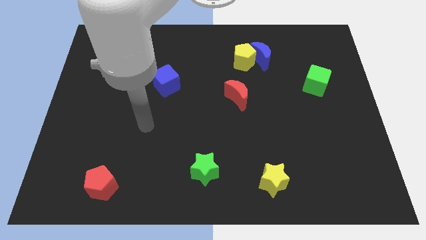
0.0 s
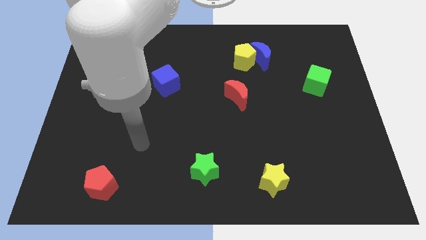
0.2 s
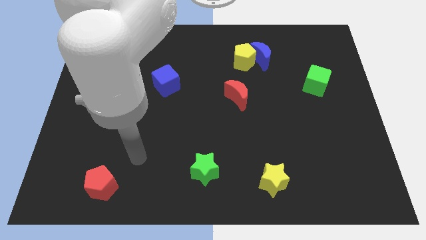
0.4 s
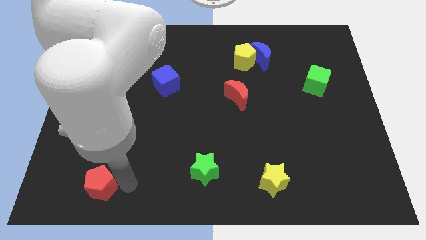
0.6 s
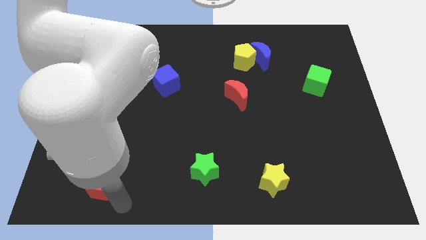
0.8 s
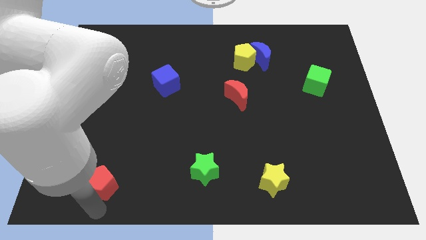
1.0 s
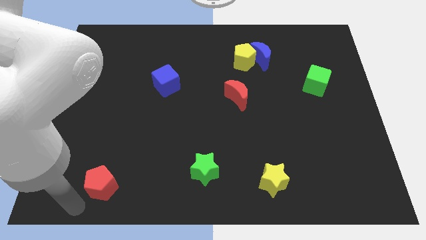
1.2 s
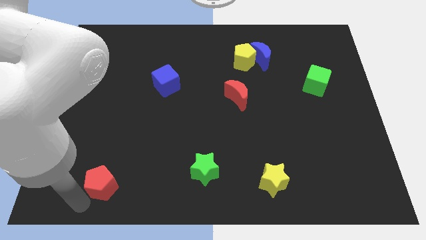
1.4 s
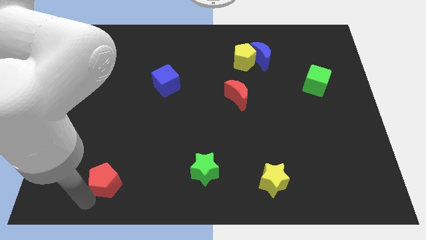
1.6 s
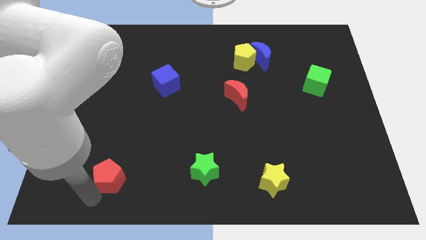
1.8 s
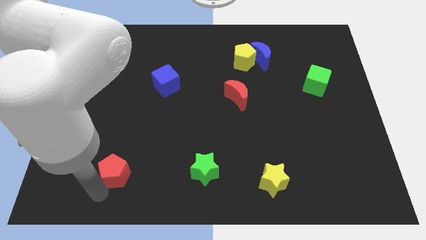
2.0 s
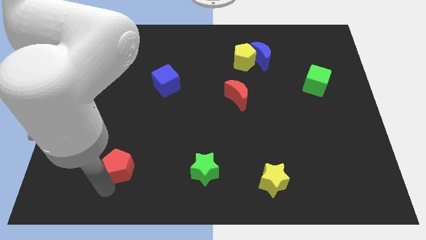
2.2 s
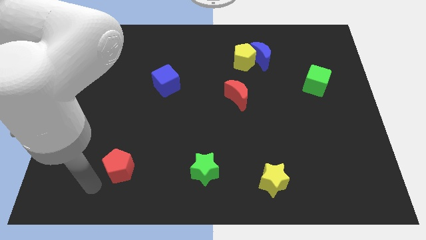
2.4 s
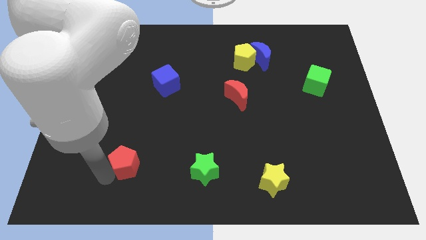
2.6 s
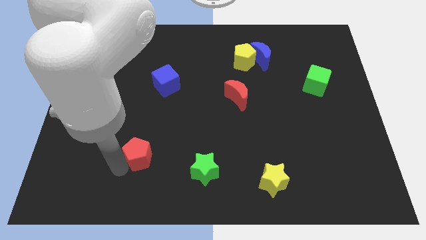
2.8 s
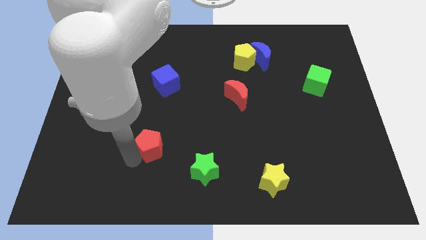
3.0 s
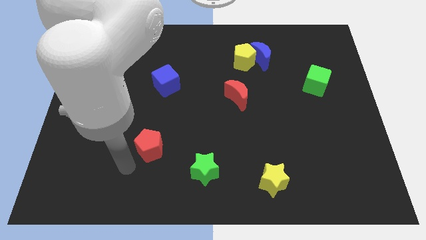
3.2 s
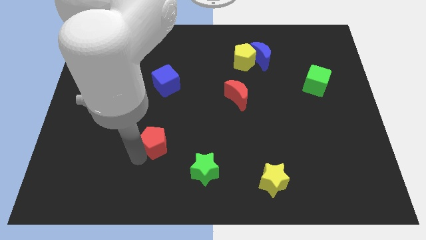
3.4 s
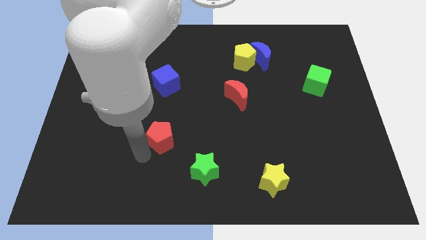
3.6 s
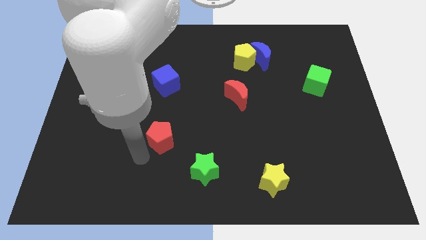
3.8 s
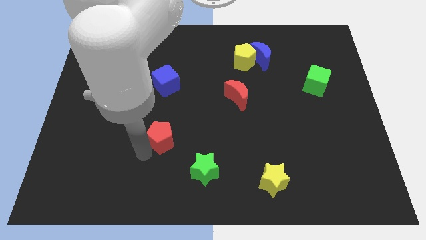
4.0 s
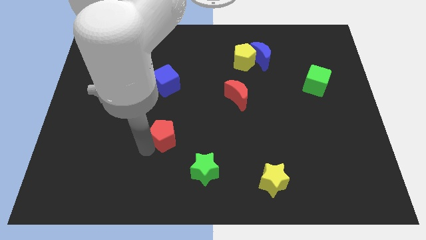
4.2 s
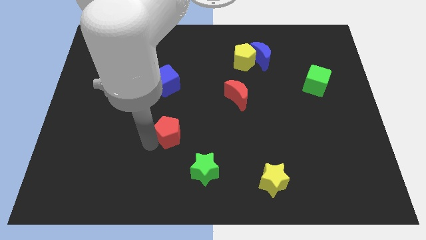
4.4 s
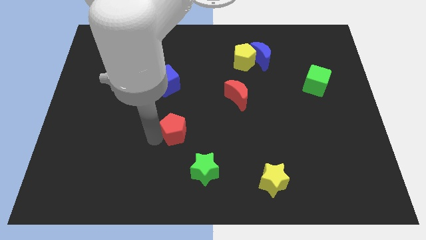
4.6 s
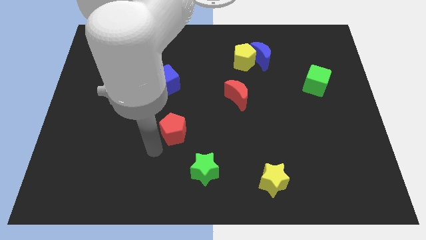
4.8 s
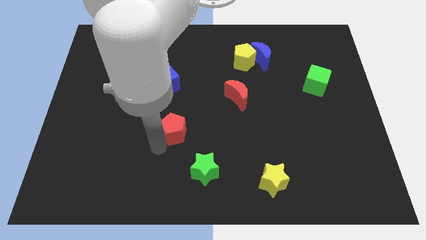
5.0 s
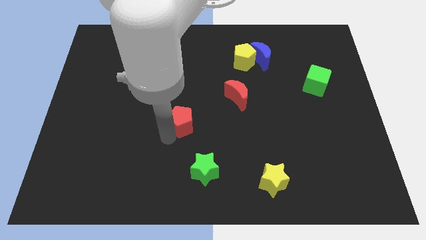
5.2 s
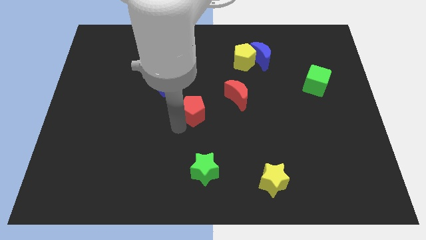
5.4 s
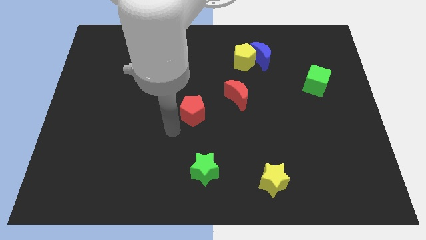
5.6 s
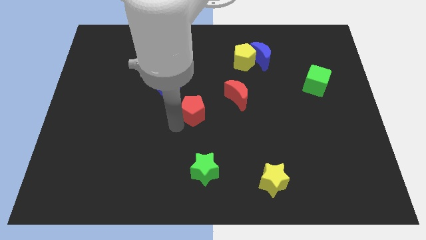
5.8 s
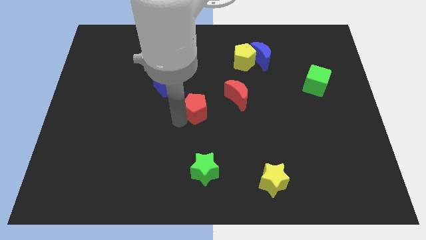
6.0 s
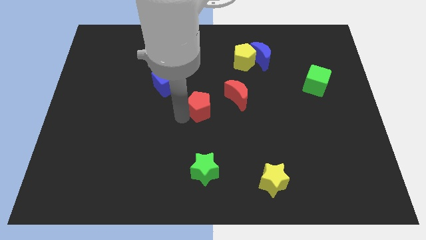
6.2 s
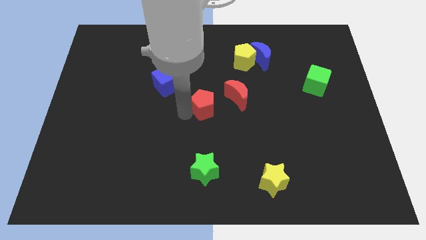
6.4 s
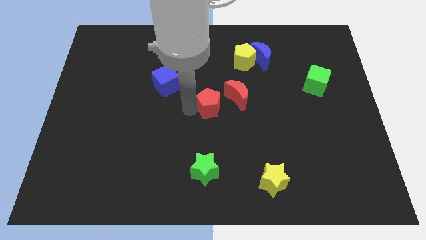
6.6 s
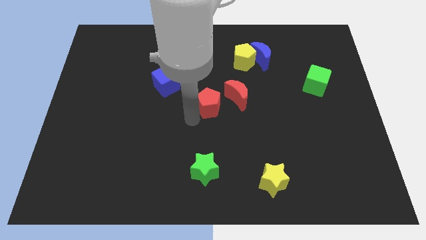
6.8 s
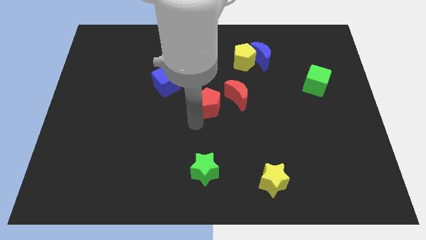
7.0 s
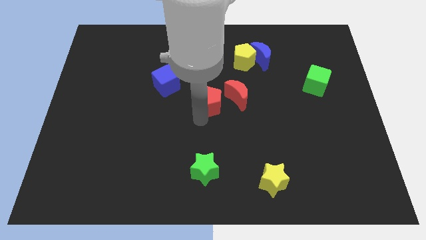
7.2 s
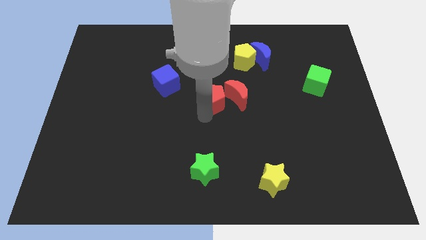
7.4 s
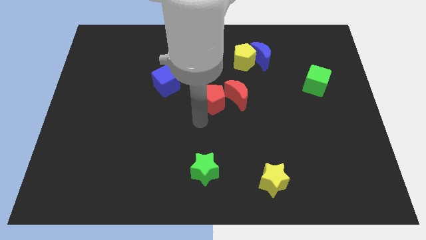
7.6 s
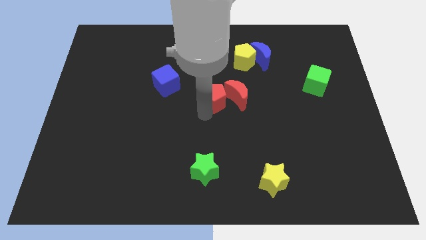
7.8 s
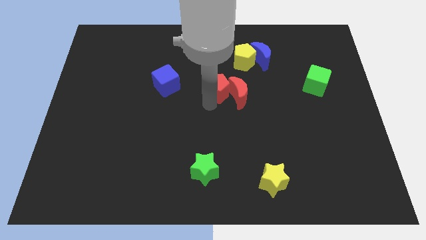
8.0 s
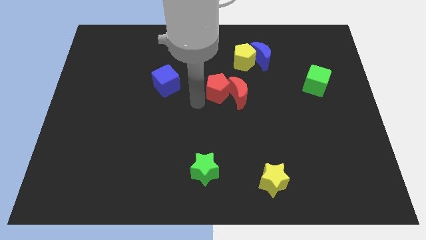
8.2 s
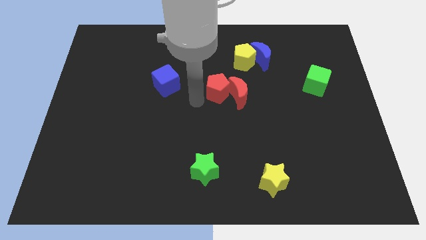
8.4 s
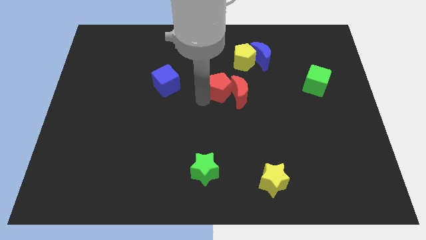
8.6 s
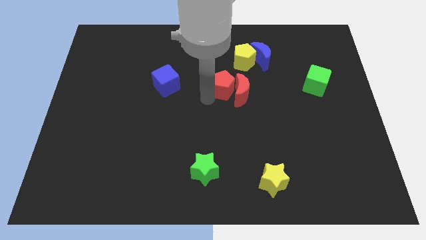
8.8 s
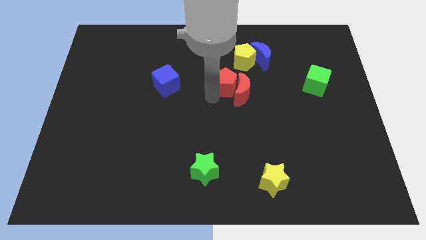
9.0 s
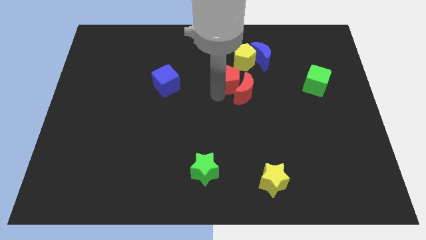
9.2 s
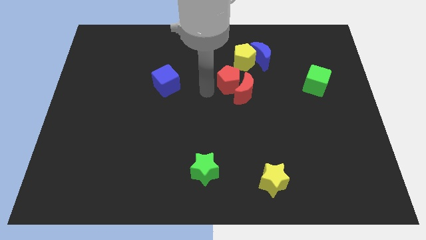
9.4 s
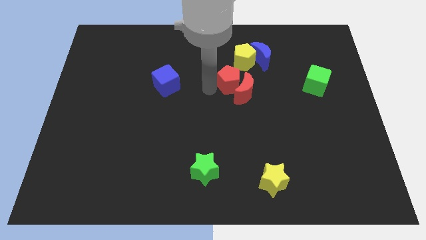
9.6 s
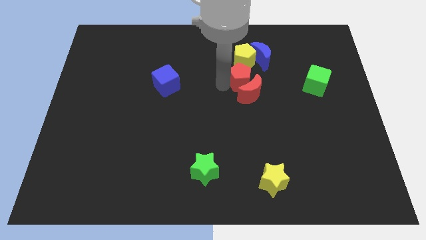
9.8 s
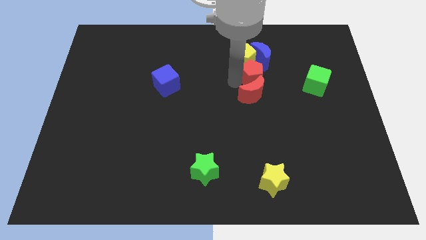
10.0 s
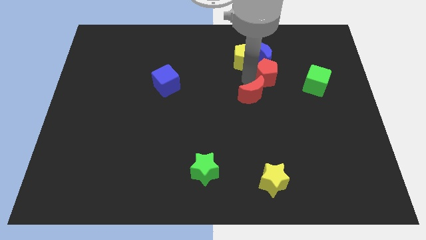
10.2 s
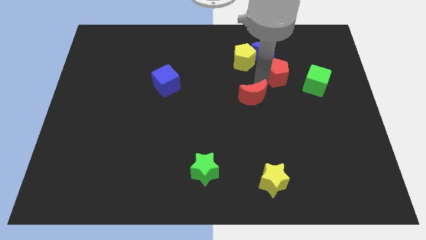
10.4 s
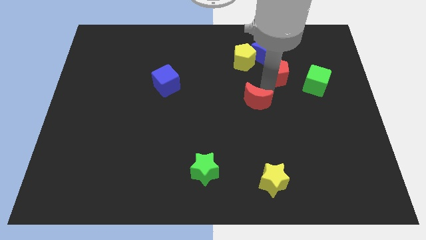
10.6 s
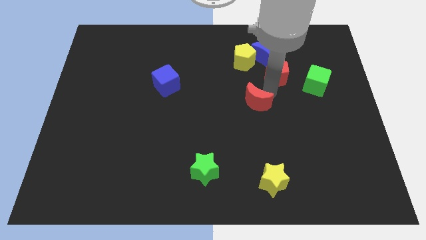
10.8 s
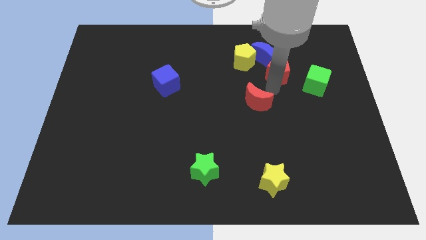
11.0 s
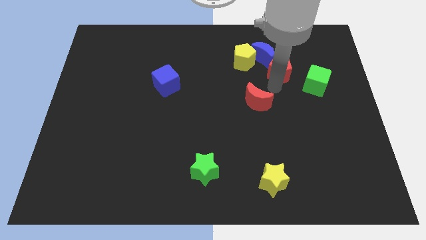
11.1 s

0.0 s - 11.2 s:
slide the red pentagon just right of the yellow pentagon

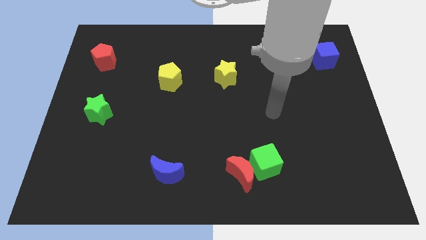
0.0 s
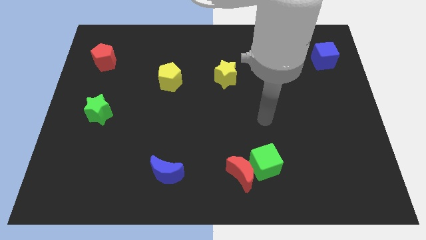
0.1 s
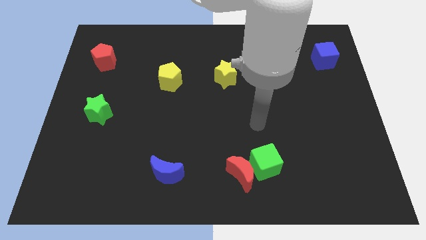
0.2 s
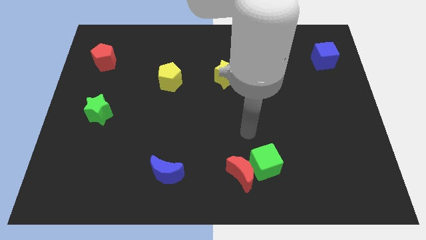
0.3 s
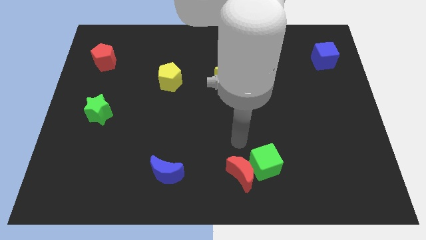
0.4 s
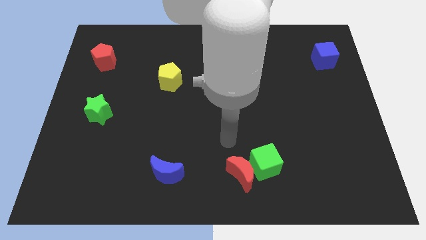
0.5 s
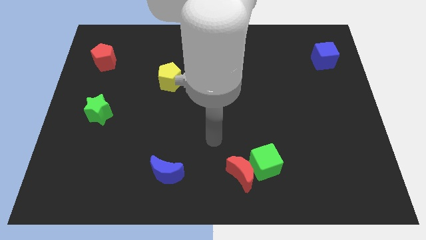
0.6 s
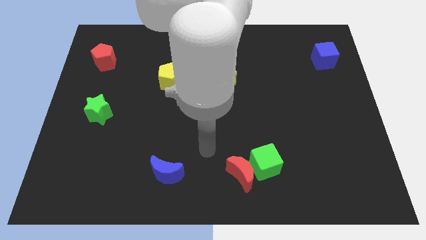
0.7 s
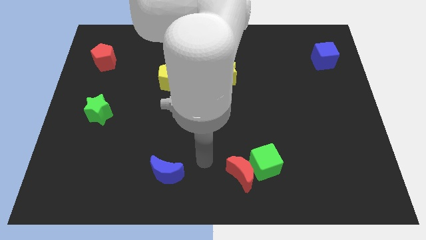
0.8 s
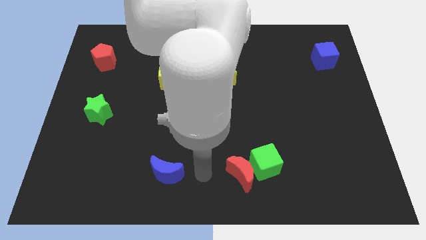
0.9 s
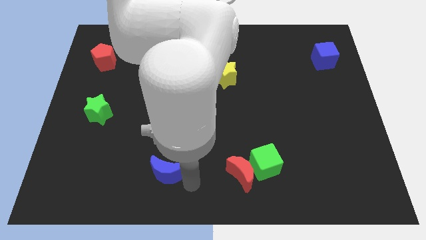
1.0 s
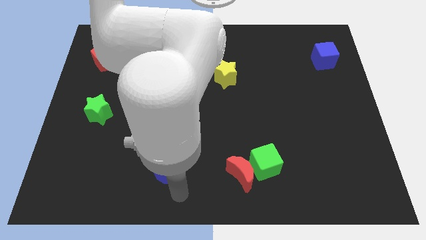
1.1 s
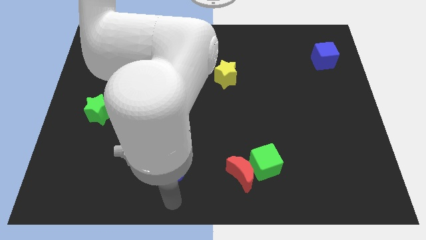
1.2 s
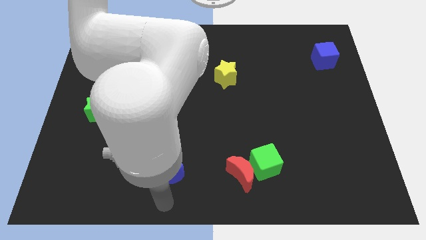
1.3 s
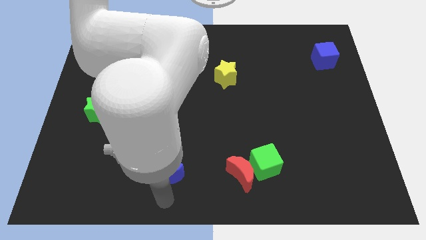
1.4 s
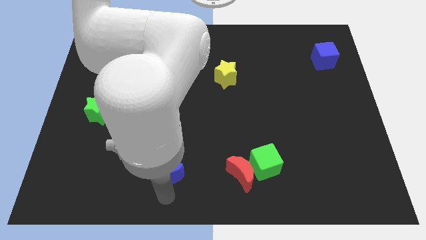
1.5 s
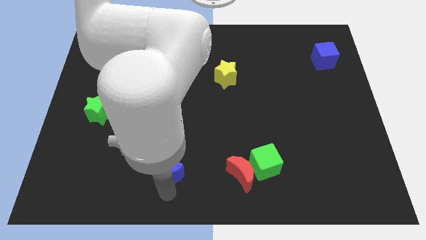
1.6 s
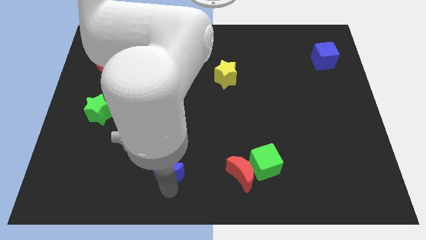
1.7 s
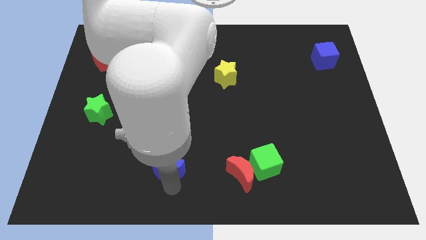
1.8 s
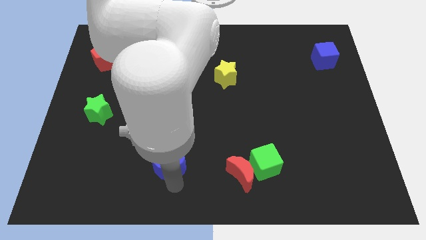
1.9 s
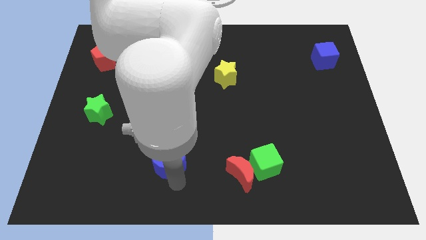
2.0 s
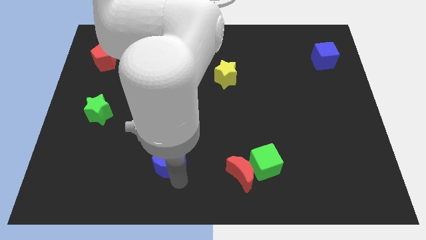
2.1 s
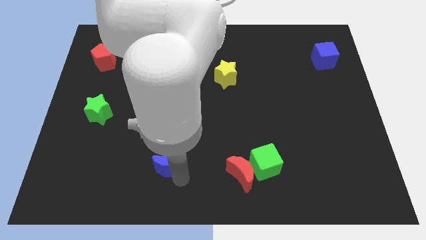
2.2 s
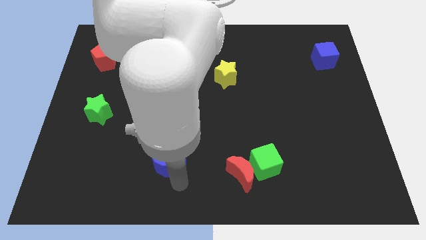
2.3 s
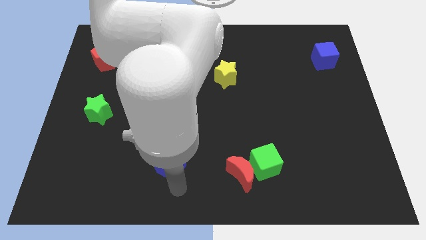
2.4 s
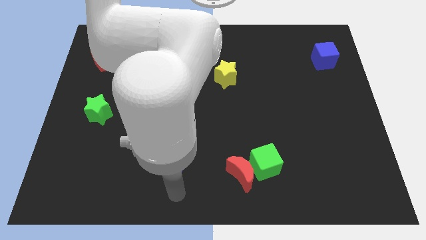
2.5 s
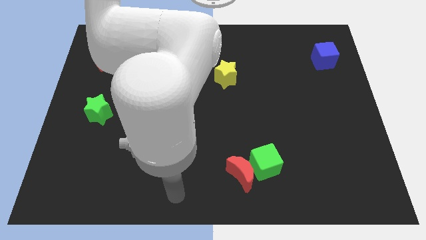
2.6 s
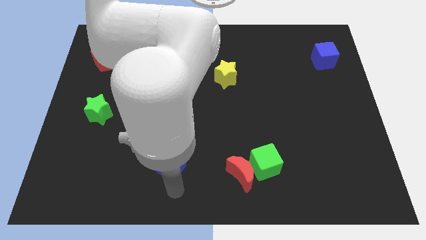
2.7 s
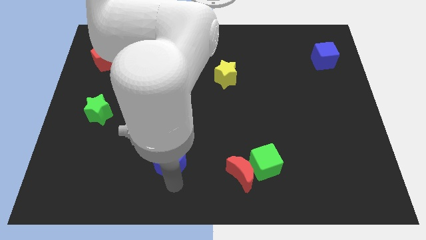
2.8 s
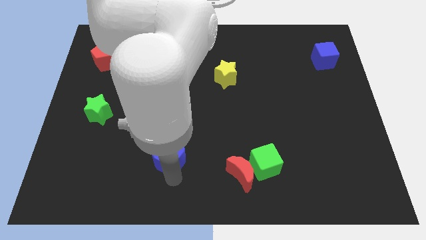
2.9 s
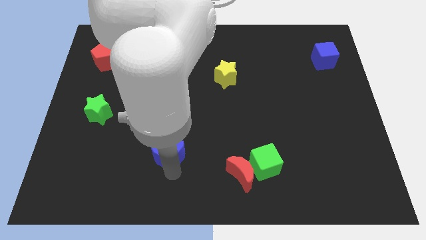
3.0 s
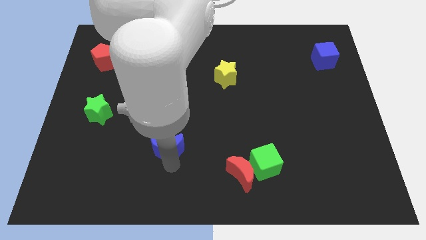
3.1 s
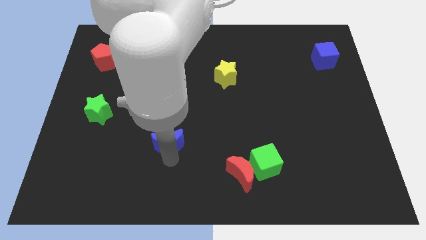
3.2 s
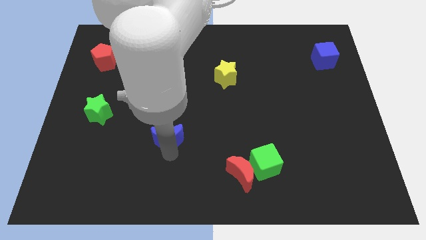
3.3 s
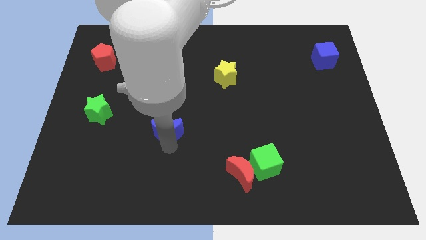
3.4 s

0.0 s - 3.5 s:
put the blue moon to the bottom side of the yellow pentagon
